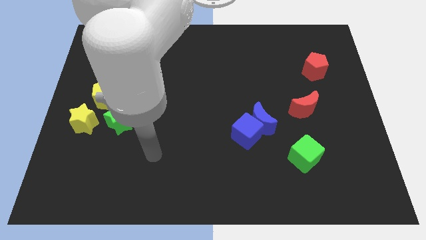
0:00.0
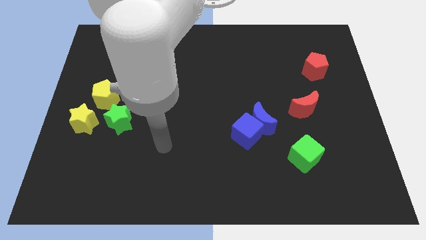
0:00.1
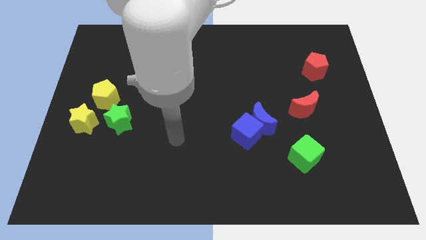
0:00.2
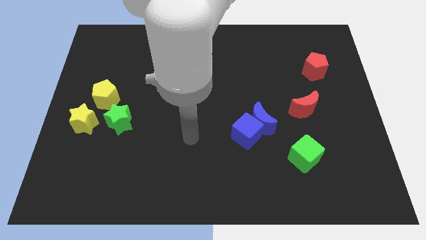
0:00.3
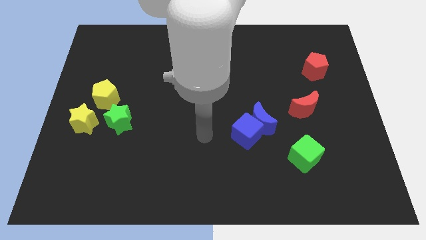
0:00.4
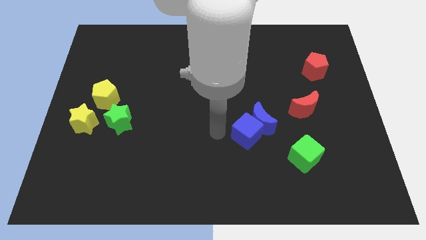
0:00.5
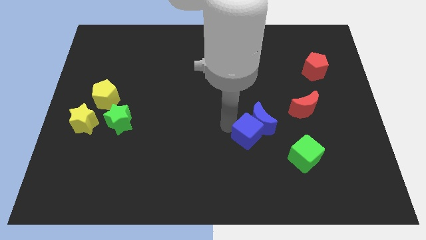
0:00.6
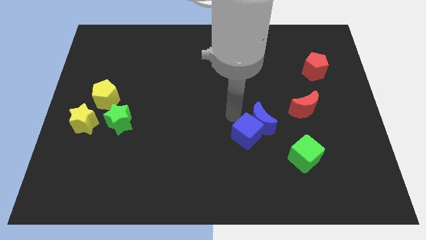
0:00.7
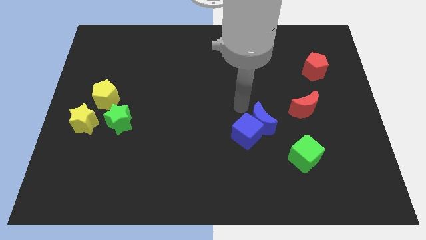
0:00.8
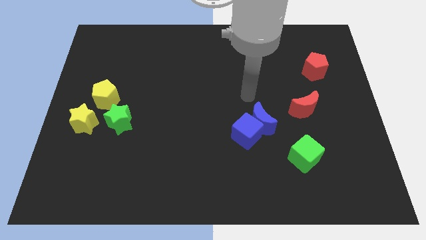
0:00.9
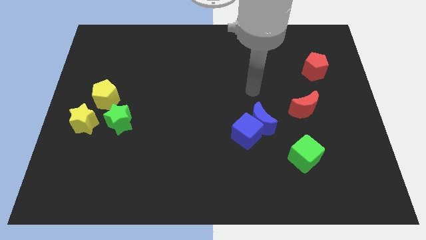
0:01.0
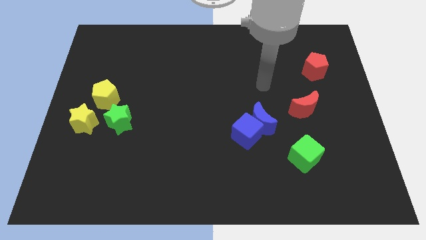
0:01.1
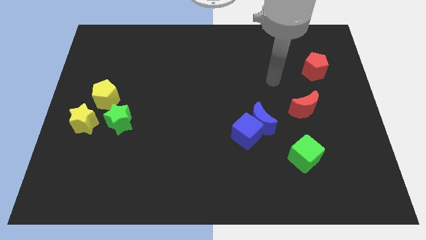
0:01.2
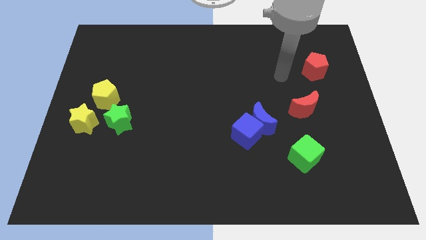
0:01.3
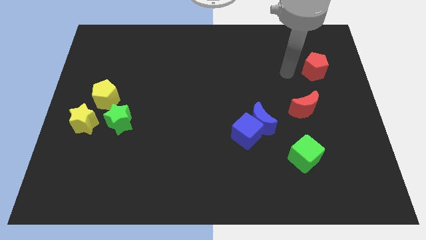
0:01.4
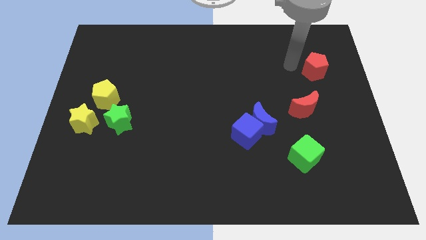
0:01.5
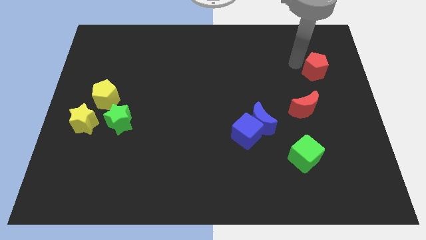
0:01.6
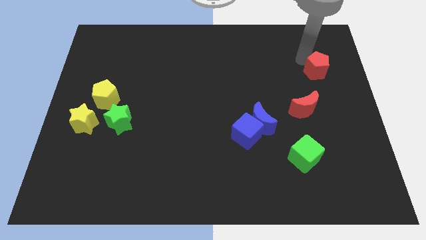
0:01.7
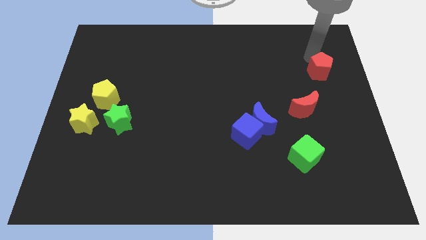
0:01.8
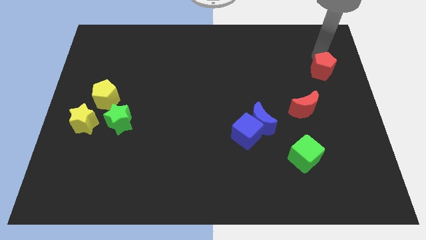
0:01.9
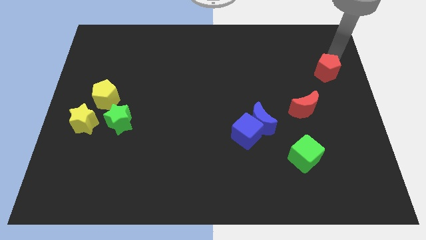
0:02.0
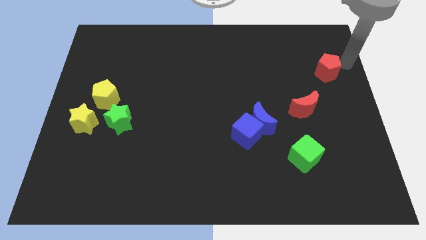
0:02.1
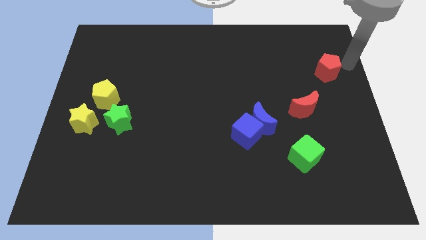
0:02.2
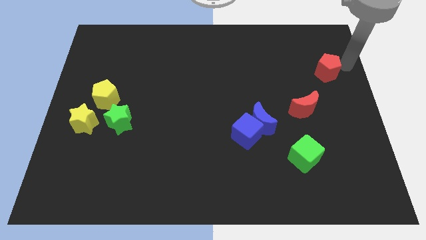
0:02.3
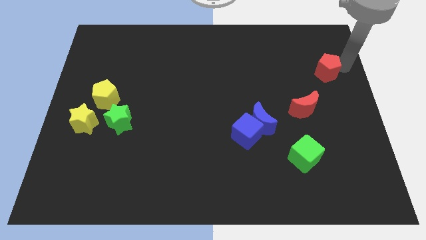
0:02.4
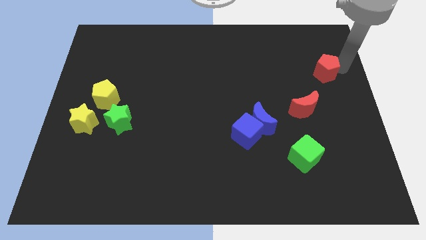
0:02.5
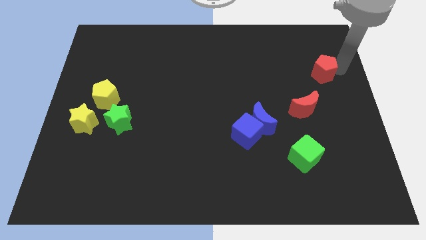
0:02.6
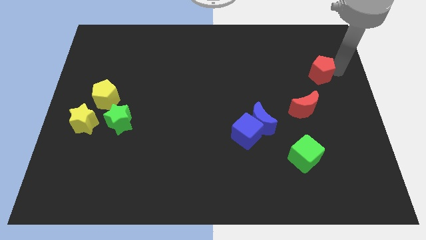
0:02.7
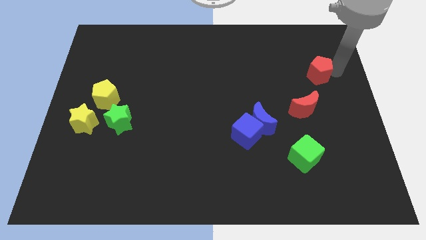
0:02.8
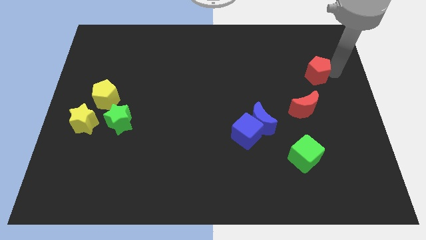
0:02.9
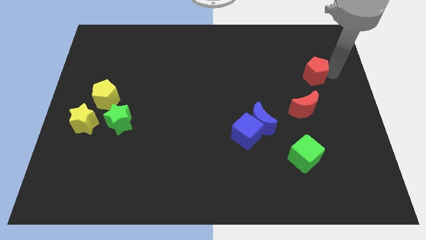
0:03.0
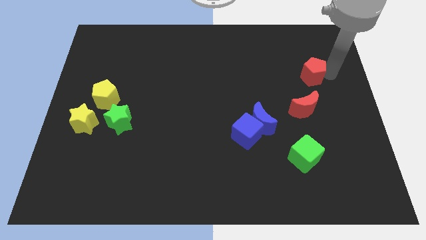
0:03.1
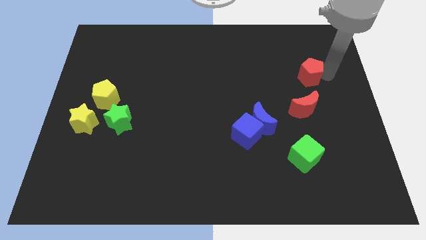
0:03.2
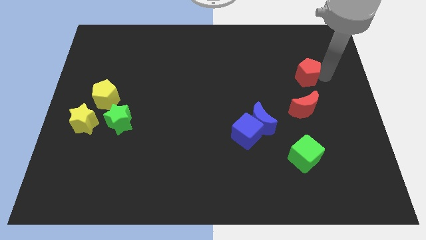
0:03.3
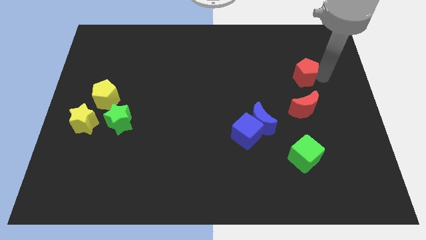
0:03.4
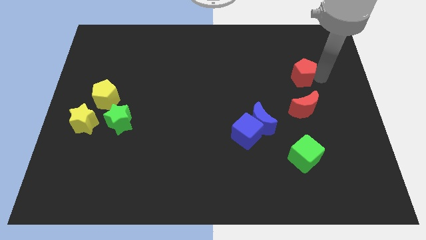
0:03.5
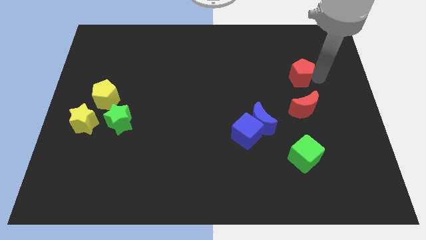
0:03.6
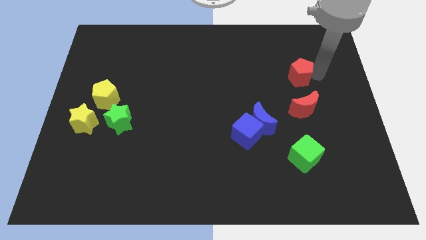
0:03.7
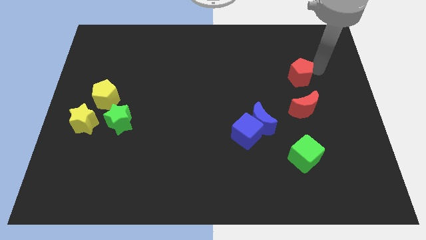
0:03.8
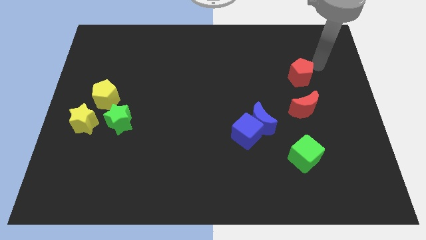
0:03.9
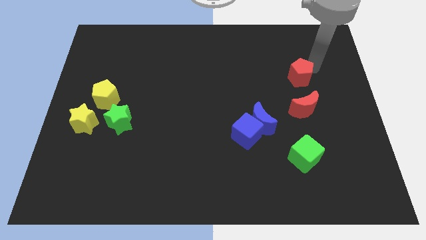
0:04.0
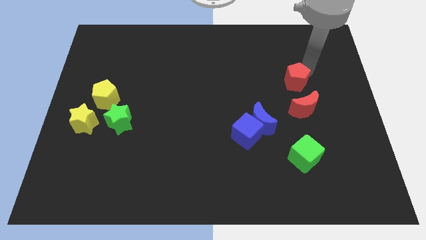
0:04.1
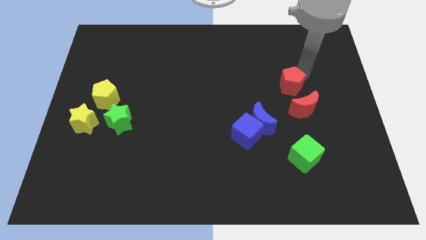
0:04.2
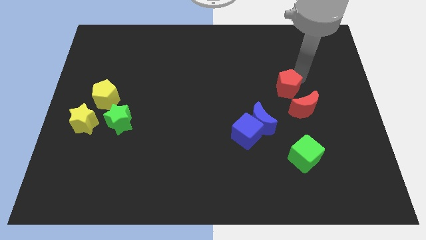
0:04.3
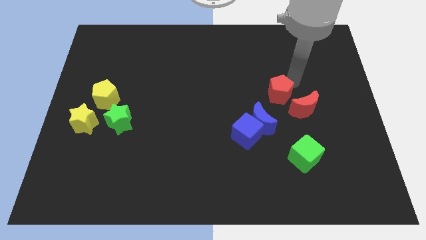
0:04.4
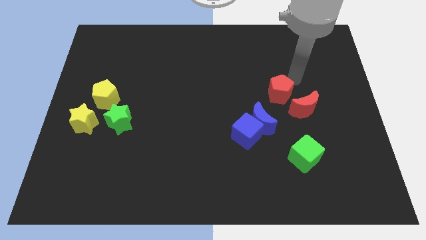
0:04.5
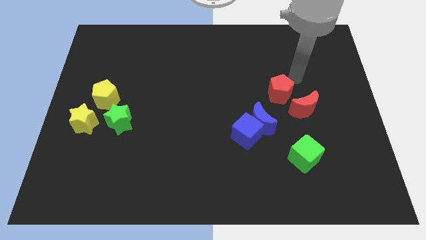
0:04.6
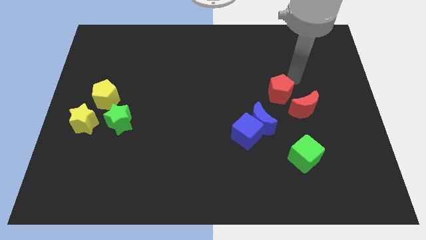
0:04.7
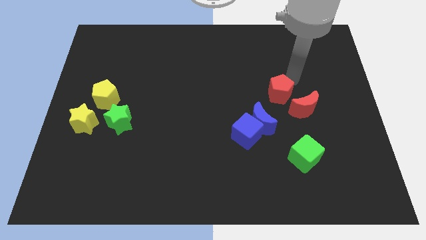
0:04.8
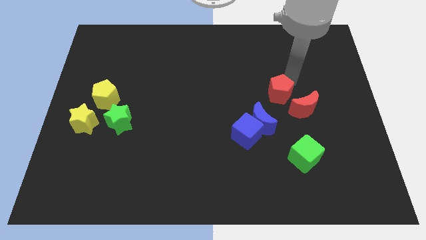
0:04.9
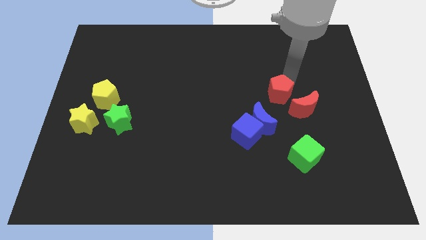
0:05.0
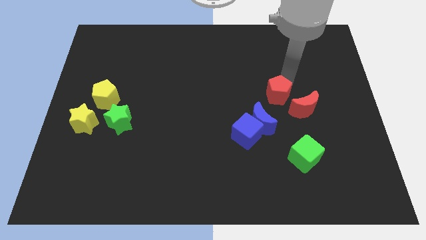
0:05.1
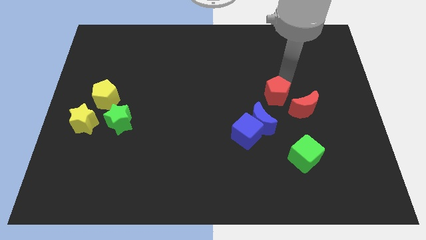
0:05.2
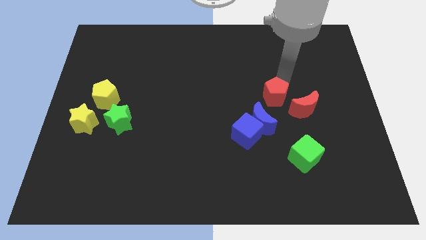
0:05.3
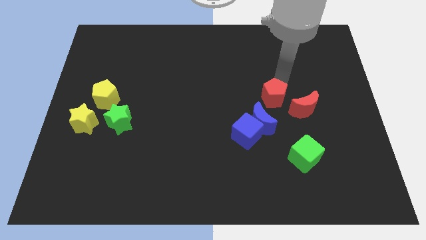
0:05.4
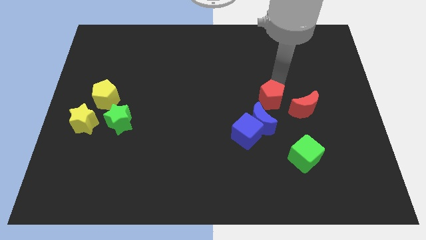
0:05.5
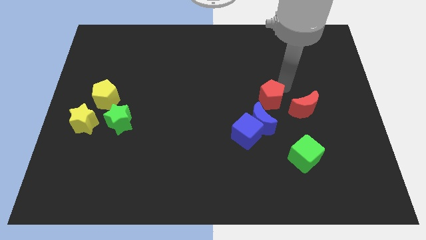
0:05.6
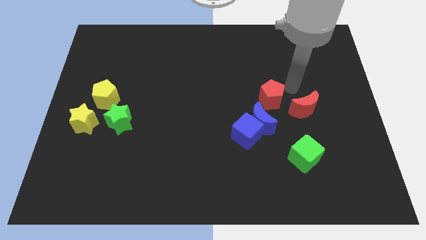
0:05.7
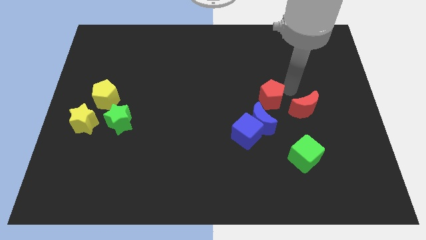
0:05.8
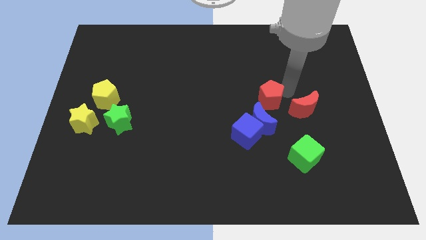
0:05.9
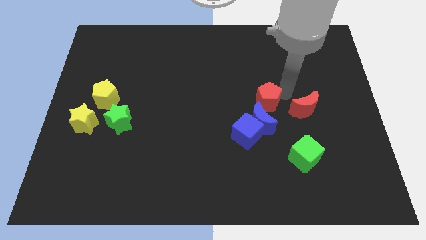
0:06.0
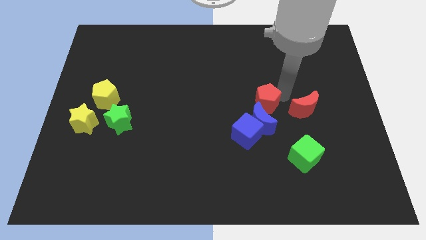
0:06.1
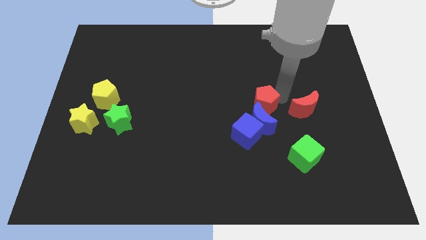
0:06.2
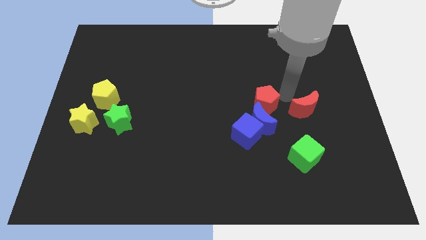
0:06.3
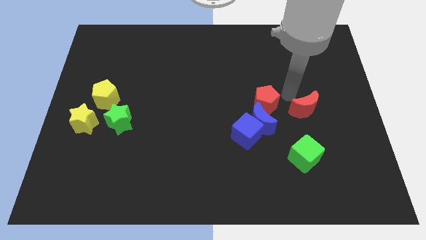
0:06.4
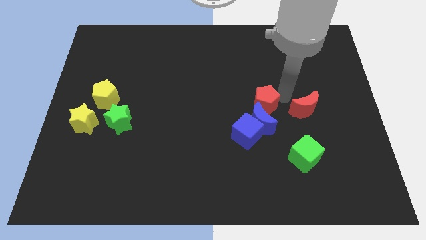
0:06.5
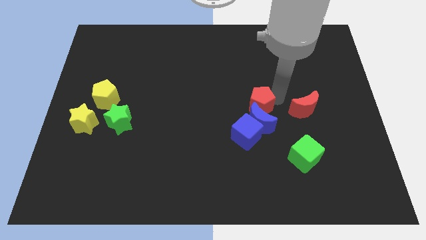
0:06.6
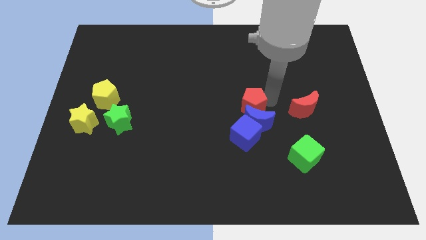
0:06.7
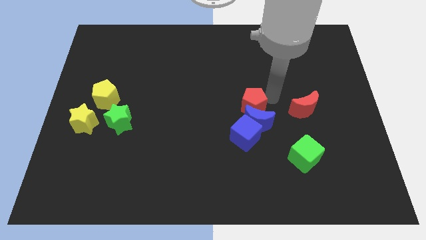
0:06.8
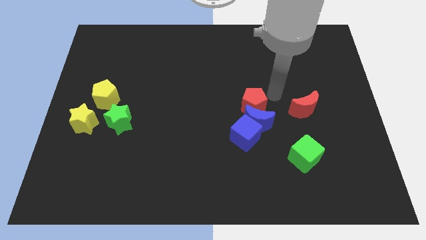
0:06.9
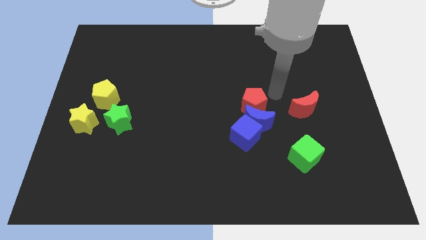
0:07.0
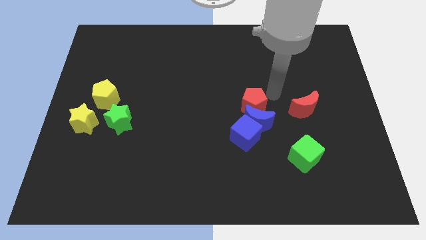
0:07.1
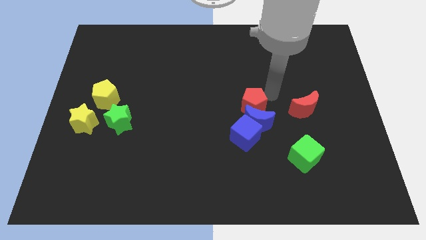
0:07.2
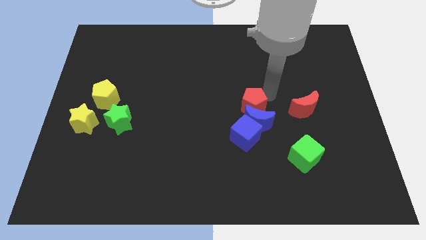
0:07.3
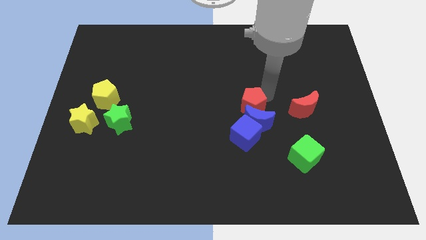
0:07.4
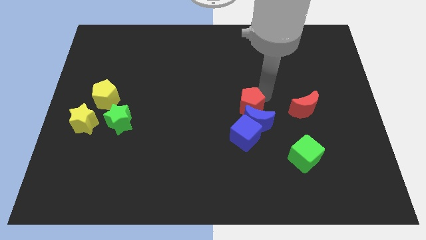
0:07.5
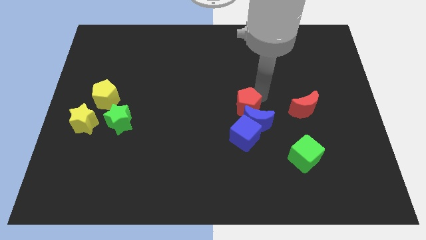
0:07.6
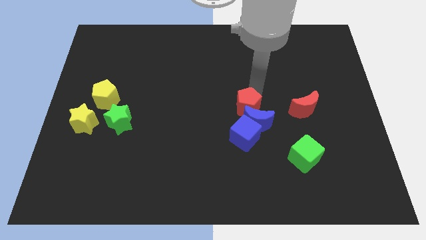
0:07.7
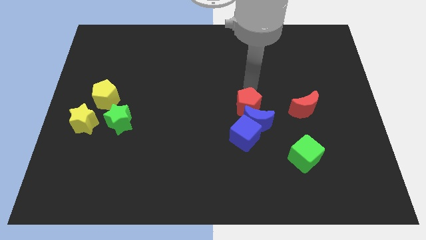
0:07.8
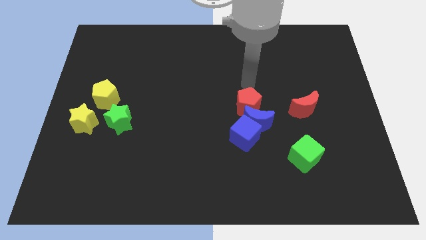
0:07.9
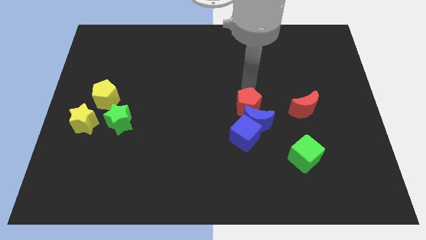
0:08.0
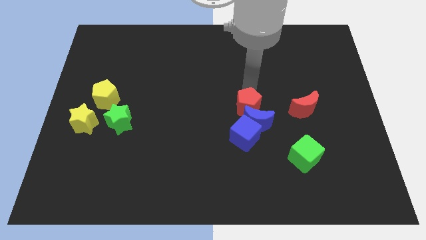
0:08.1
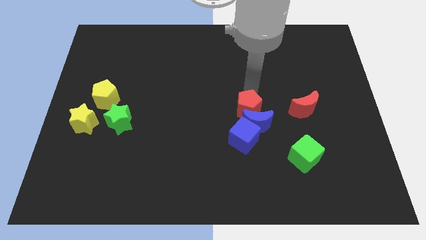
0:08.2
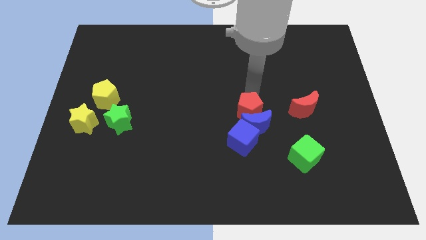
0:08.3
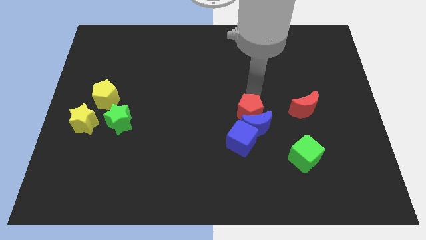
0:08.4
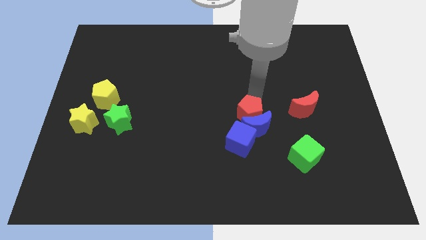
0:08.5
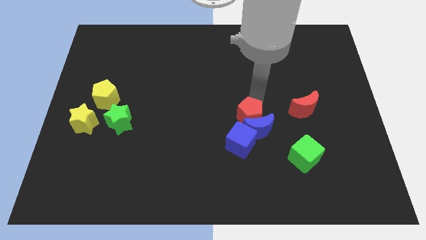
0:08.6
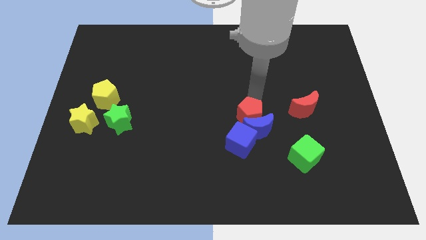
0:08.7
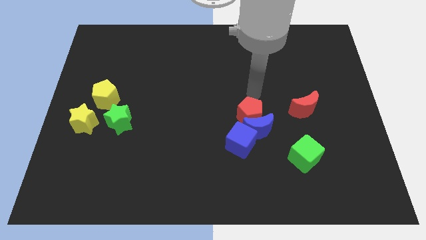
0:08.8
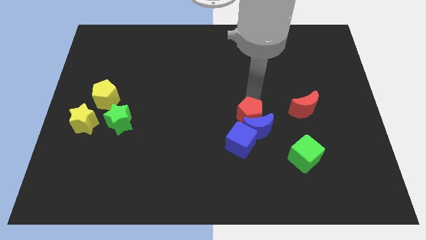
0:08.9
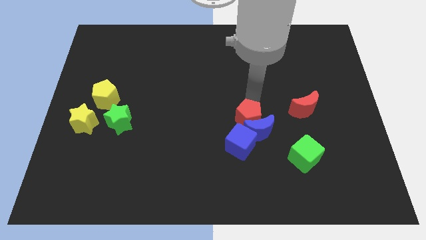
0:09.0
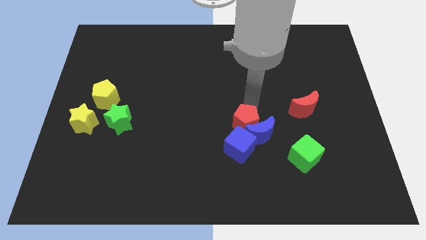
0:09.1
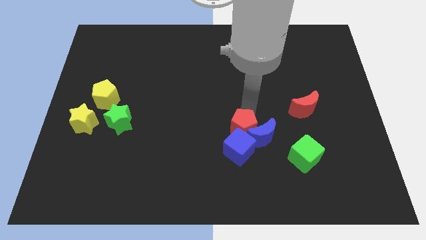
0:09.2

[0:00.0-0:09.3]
put the red pentagon towards the blue cube
